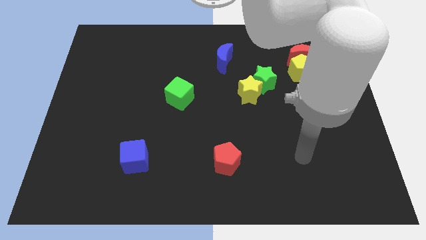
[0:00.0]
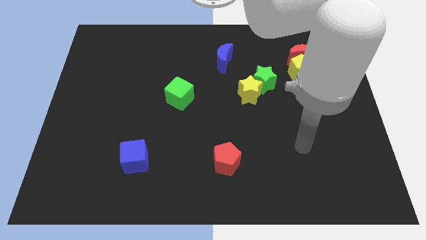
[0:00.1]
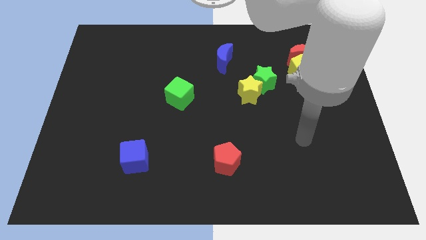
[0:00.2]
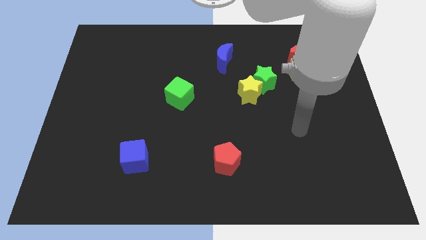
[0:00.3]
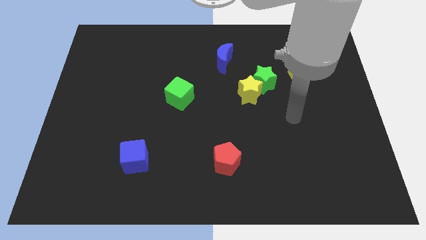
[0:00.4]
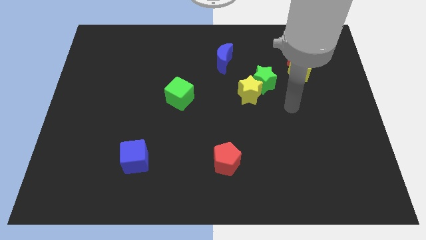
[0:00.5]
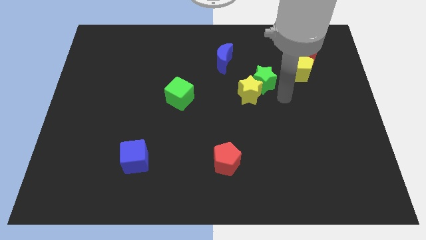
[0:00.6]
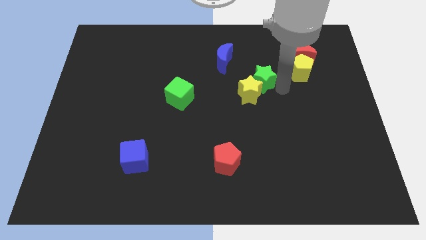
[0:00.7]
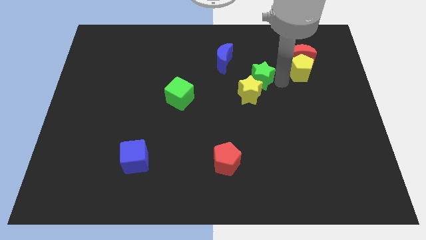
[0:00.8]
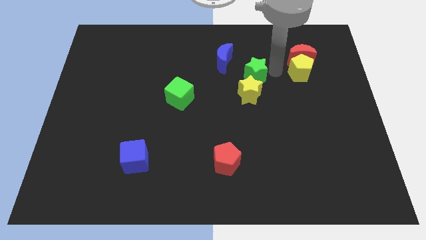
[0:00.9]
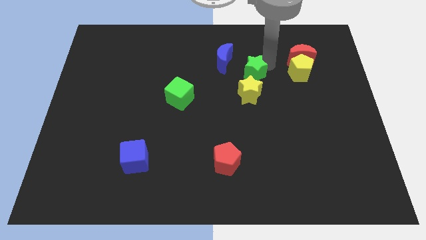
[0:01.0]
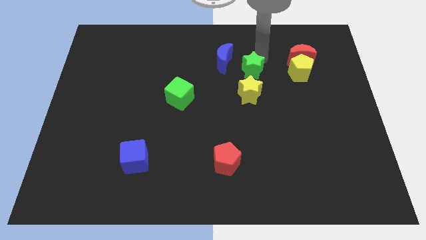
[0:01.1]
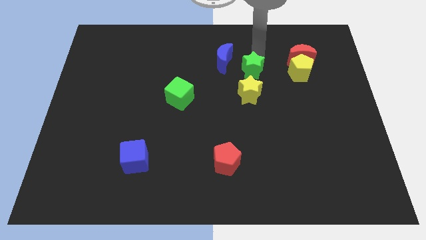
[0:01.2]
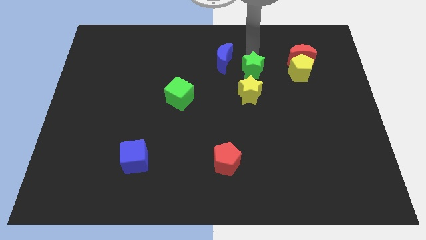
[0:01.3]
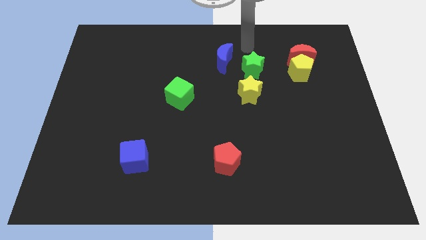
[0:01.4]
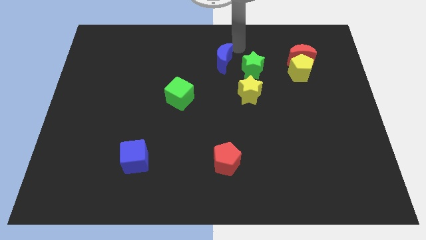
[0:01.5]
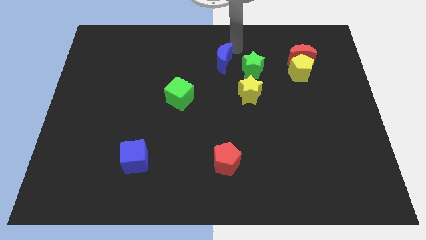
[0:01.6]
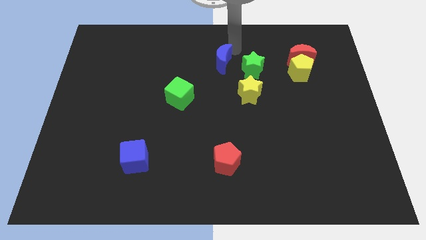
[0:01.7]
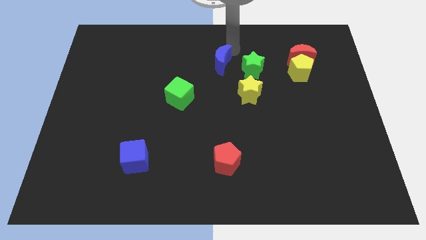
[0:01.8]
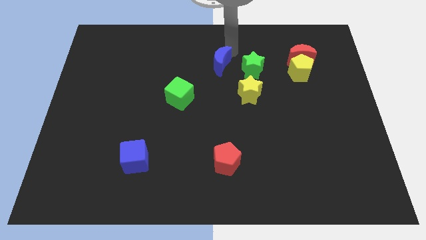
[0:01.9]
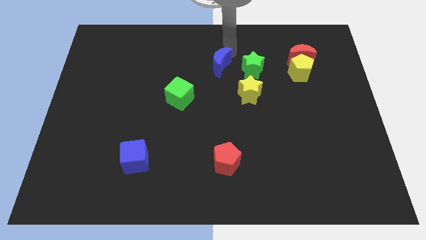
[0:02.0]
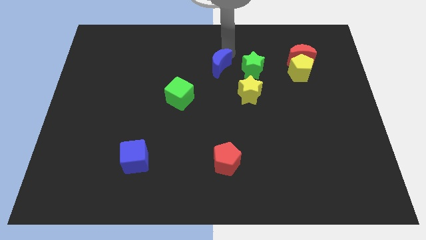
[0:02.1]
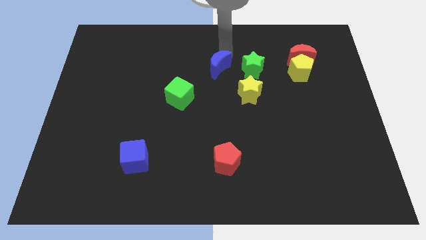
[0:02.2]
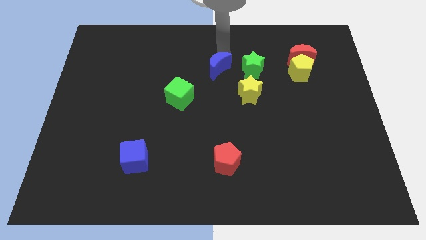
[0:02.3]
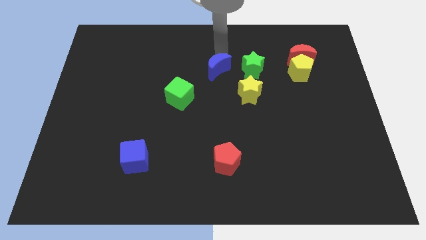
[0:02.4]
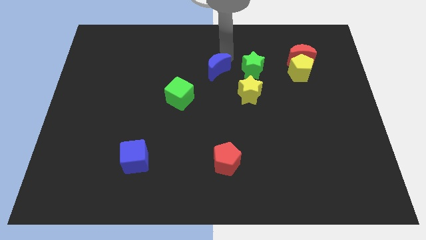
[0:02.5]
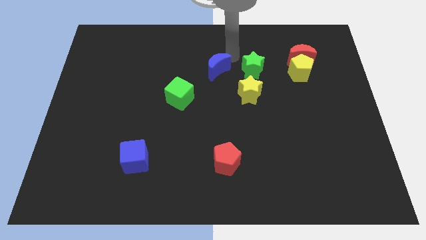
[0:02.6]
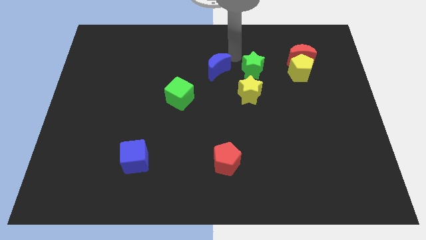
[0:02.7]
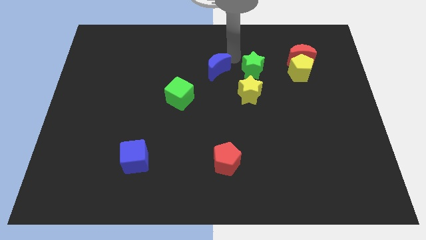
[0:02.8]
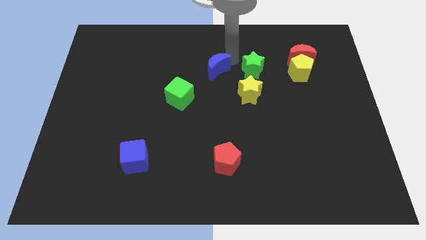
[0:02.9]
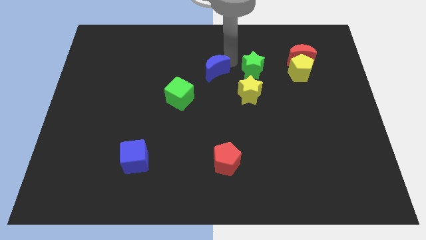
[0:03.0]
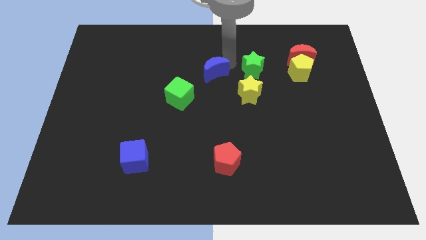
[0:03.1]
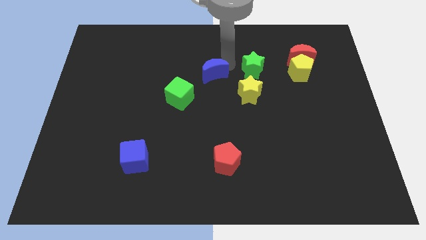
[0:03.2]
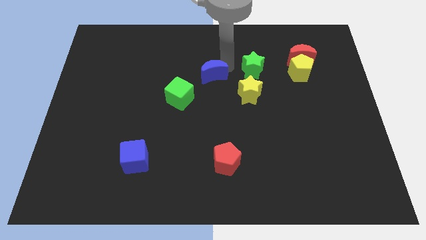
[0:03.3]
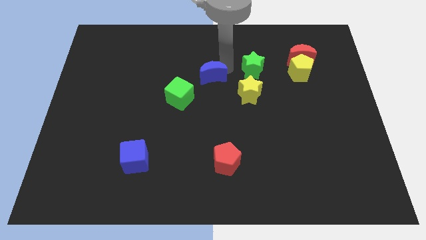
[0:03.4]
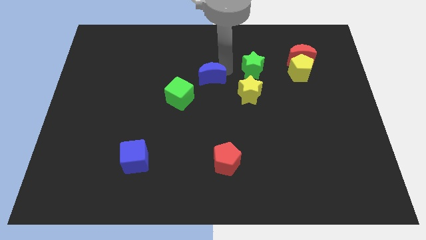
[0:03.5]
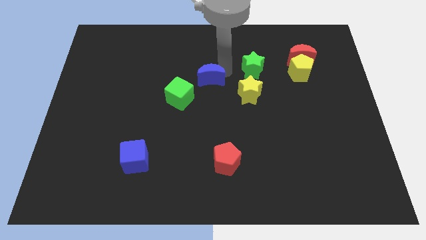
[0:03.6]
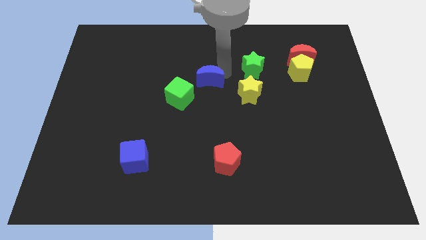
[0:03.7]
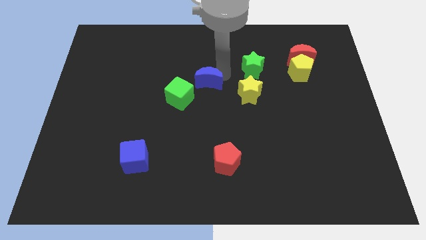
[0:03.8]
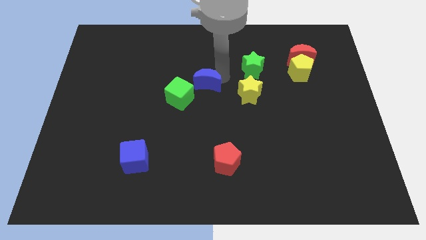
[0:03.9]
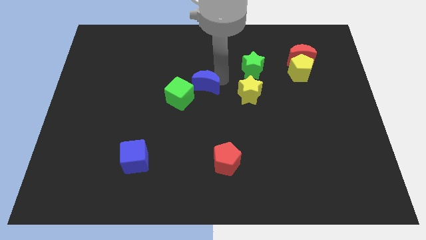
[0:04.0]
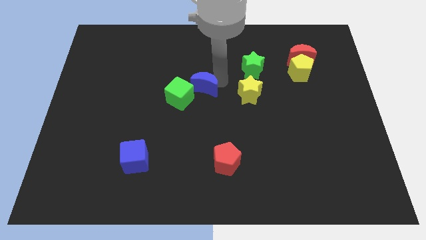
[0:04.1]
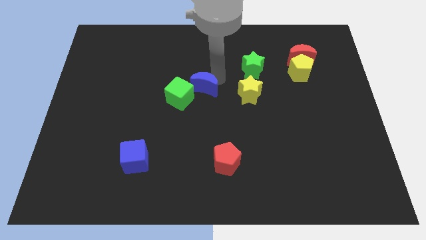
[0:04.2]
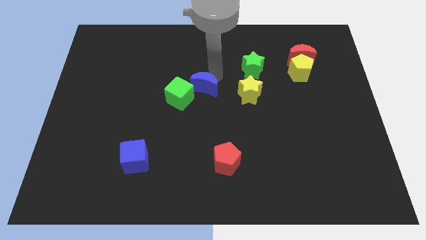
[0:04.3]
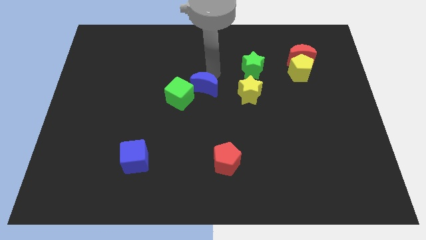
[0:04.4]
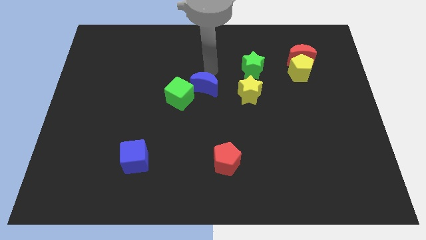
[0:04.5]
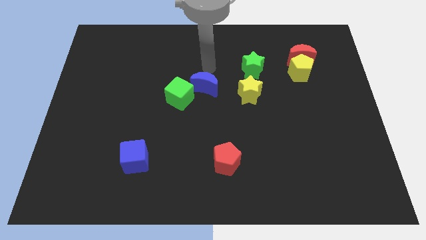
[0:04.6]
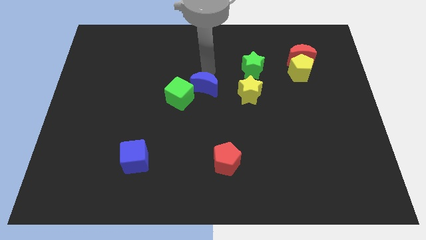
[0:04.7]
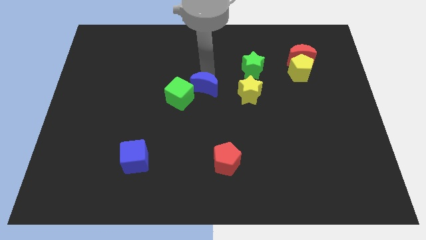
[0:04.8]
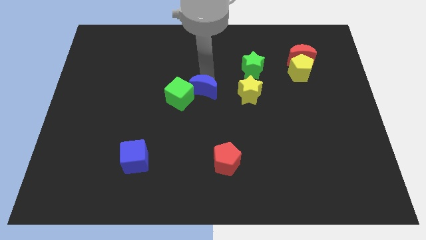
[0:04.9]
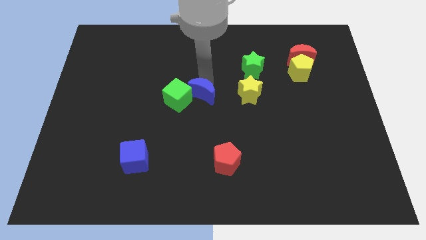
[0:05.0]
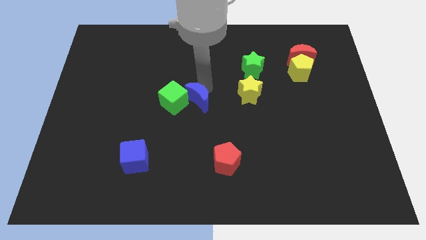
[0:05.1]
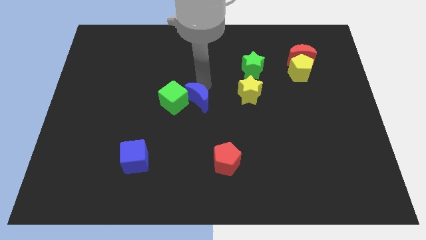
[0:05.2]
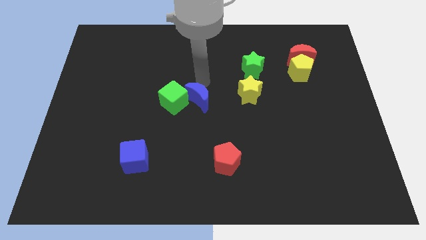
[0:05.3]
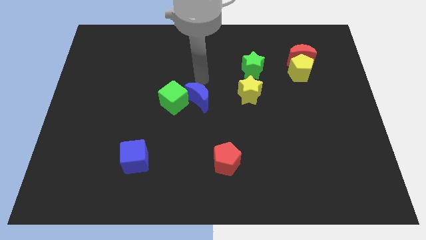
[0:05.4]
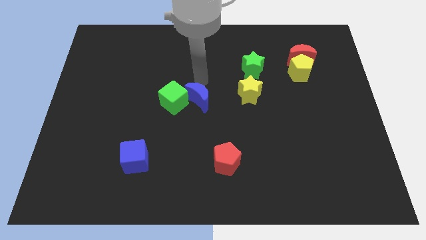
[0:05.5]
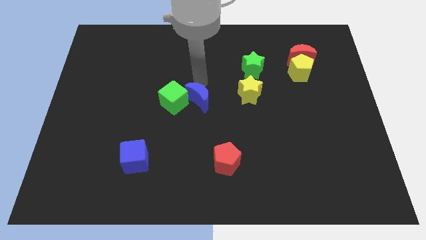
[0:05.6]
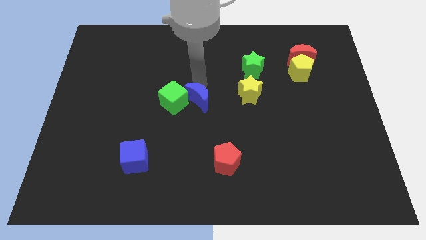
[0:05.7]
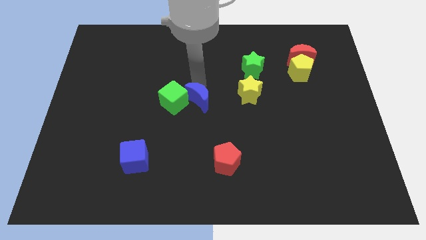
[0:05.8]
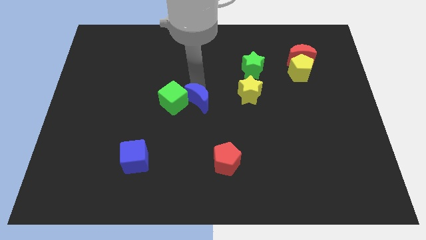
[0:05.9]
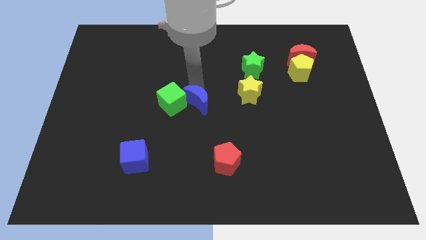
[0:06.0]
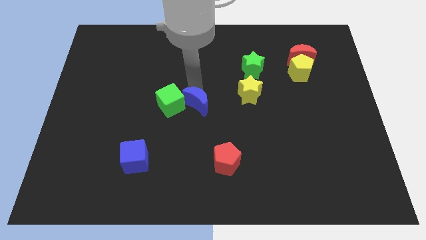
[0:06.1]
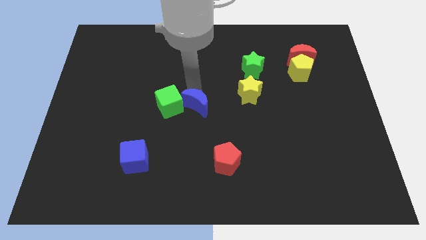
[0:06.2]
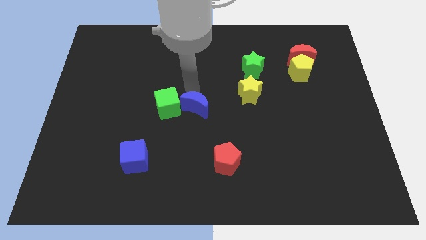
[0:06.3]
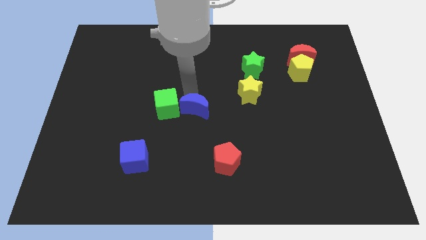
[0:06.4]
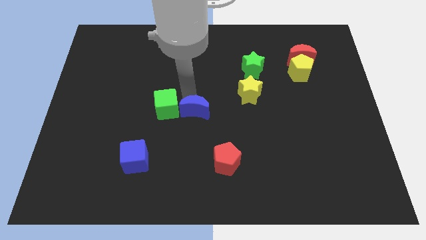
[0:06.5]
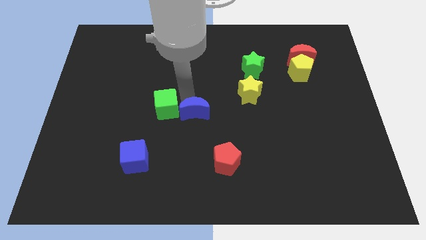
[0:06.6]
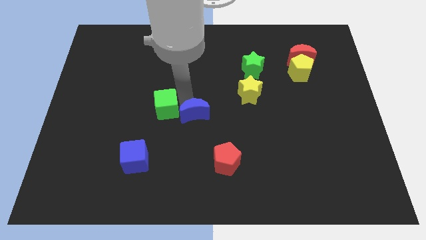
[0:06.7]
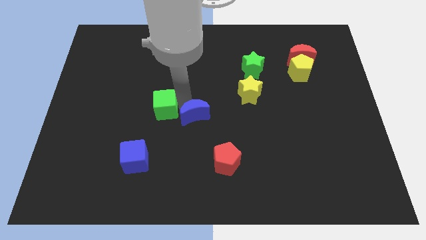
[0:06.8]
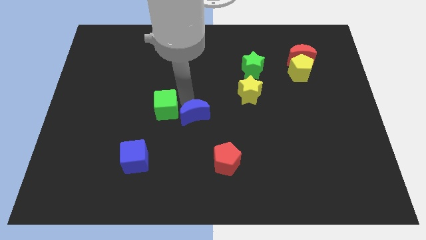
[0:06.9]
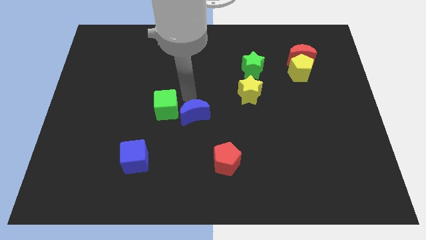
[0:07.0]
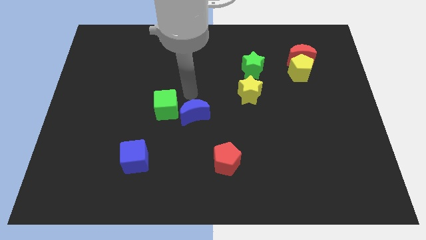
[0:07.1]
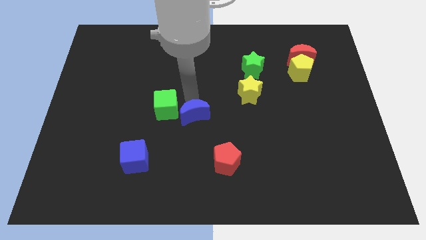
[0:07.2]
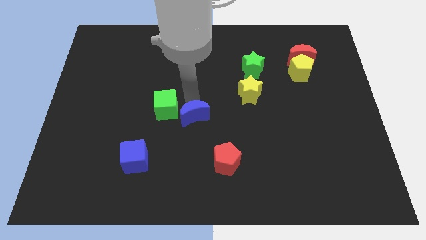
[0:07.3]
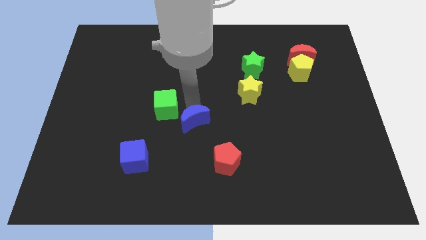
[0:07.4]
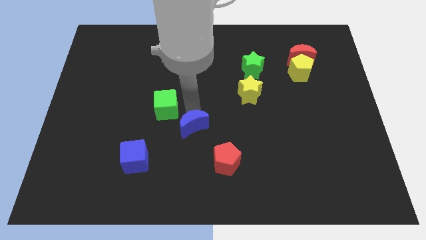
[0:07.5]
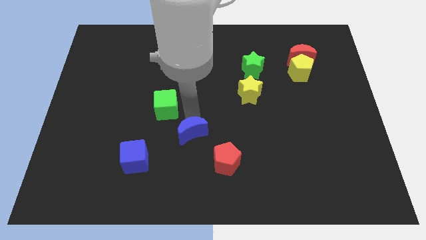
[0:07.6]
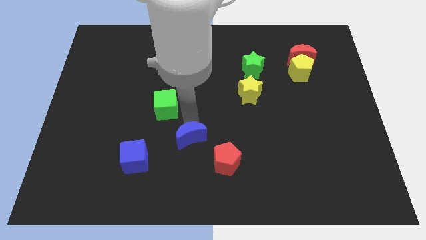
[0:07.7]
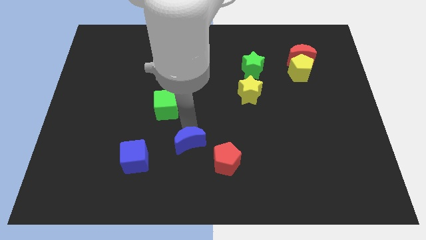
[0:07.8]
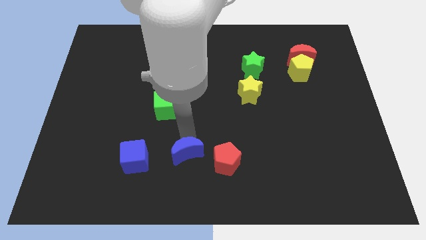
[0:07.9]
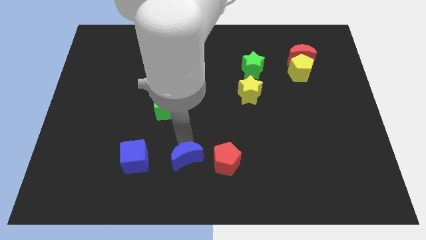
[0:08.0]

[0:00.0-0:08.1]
slide the blue moon to the bottom
